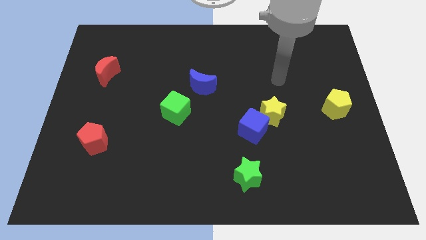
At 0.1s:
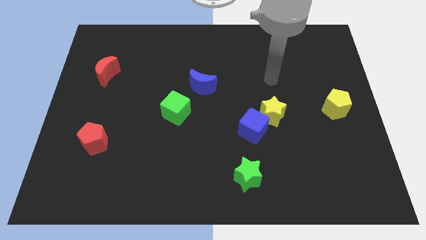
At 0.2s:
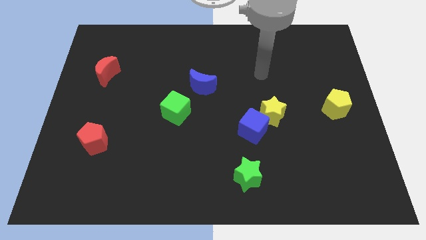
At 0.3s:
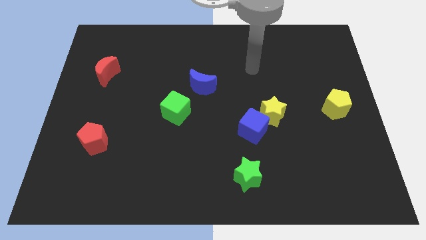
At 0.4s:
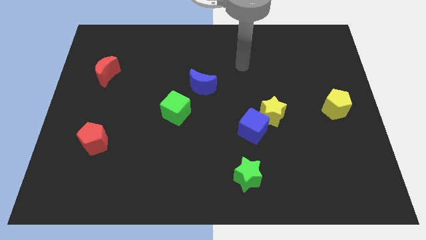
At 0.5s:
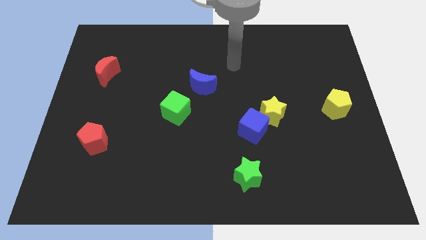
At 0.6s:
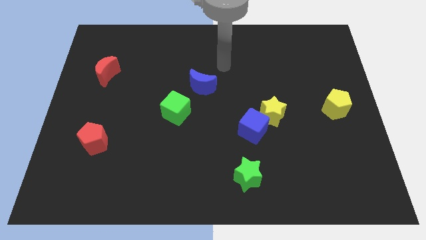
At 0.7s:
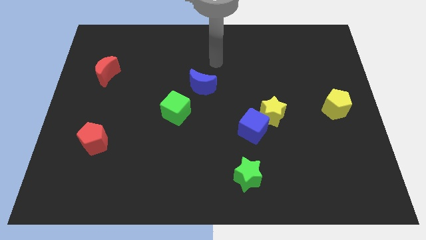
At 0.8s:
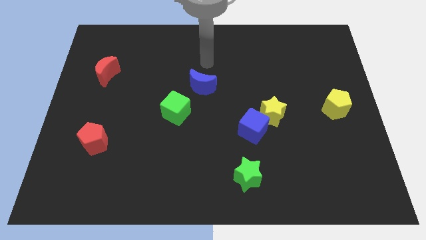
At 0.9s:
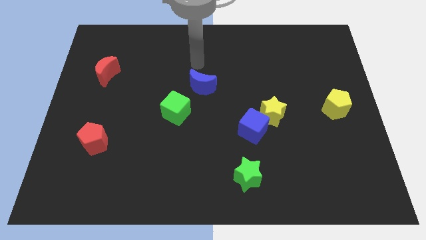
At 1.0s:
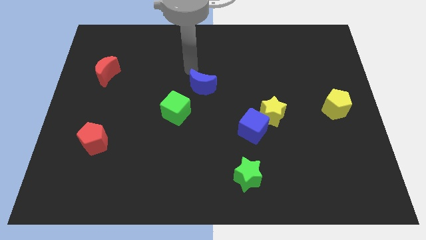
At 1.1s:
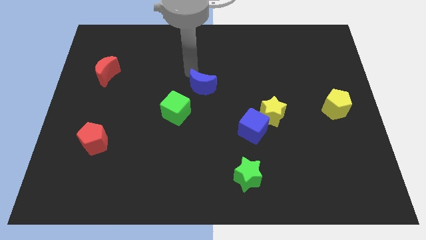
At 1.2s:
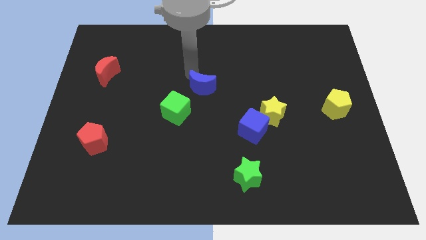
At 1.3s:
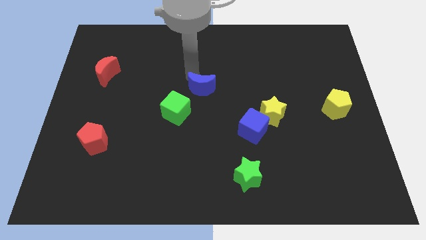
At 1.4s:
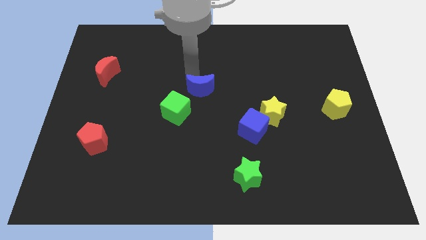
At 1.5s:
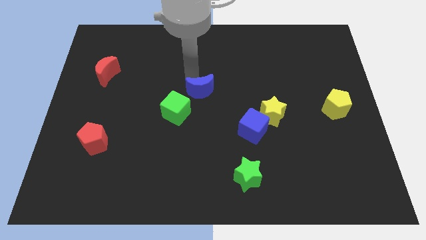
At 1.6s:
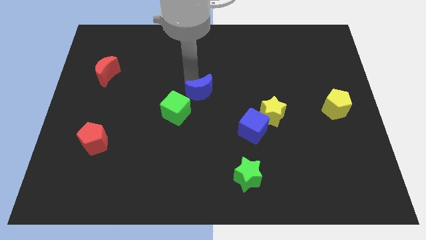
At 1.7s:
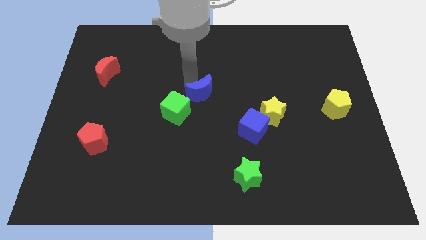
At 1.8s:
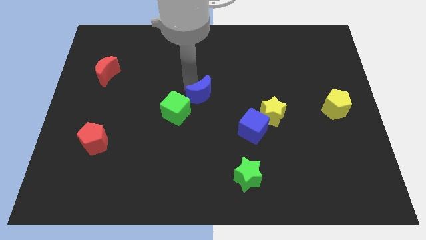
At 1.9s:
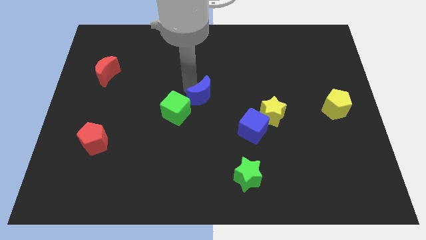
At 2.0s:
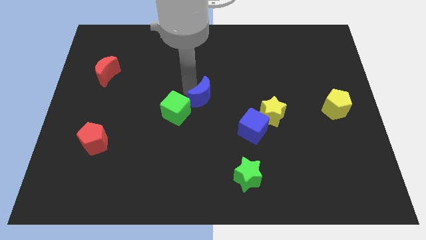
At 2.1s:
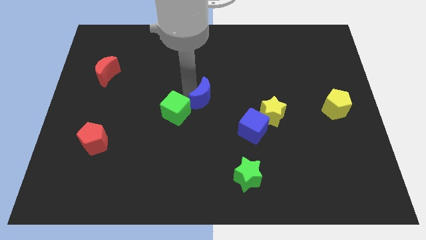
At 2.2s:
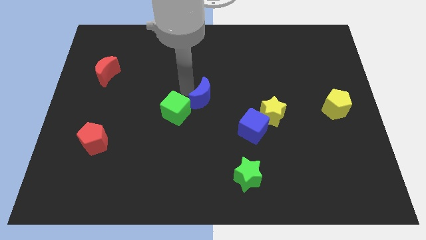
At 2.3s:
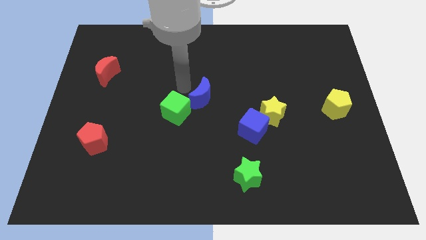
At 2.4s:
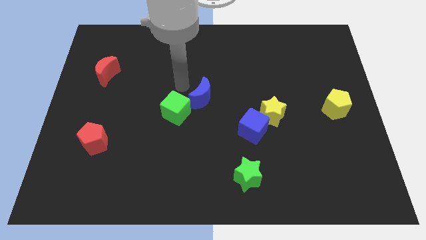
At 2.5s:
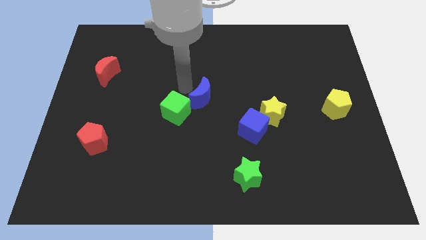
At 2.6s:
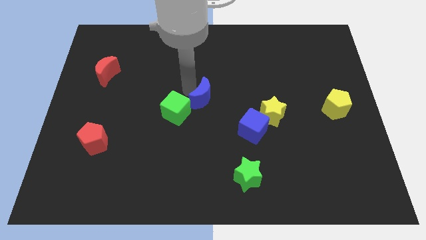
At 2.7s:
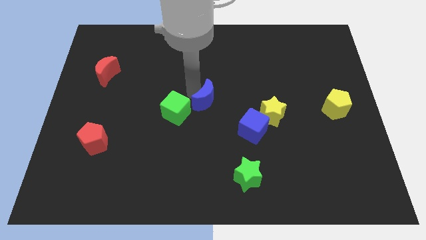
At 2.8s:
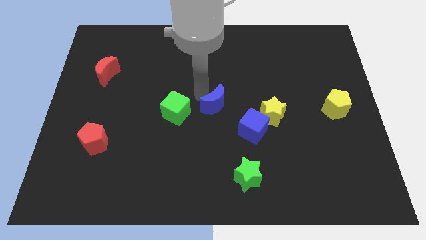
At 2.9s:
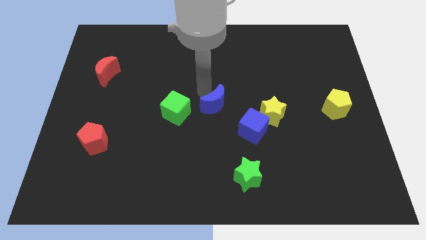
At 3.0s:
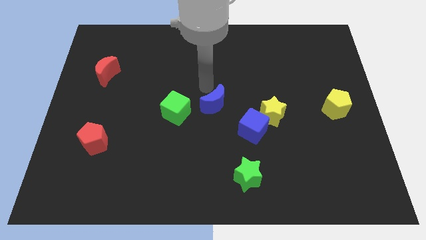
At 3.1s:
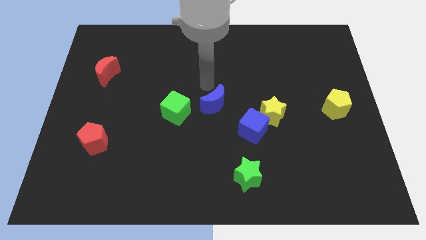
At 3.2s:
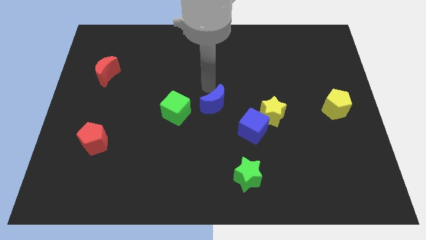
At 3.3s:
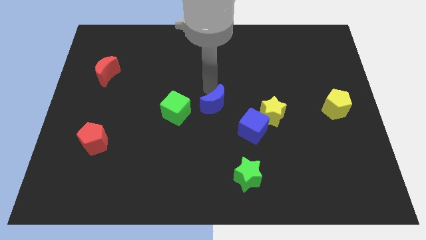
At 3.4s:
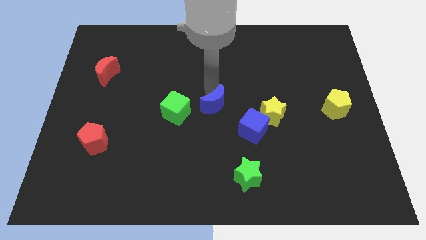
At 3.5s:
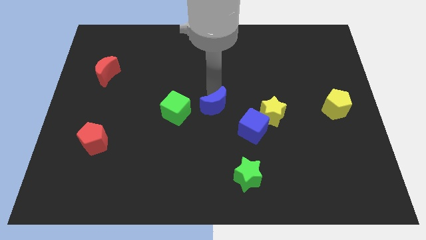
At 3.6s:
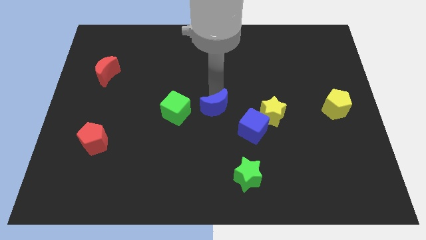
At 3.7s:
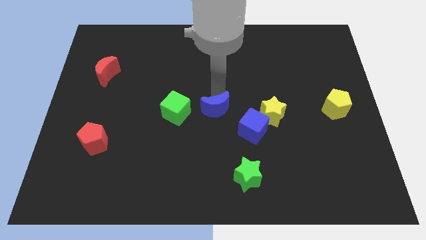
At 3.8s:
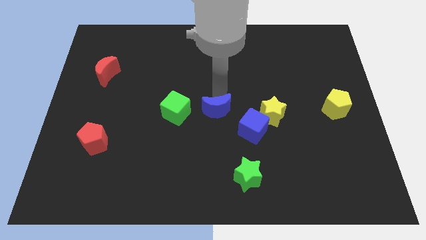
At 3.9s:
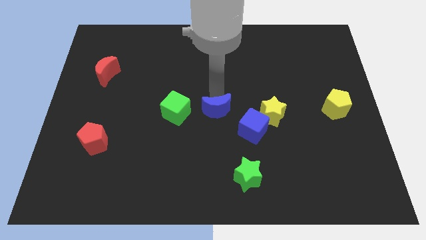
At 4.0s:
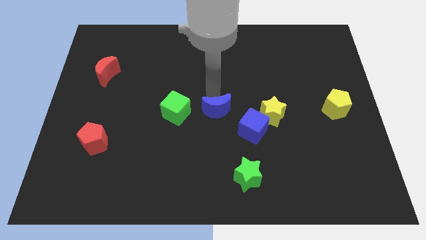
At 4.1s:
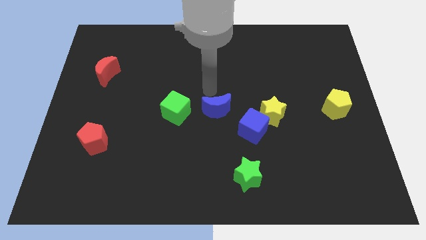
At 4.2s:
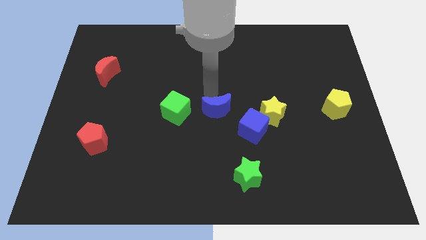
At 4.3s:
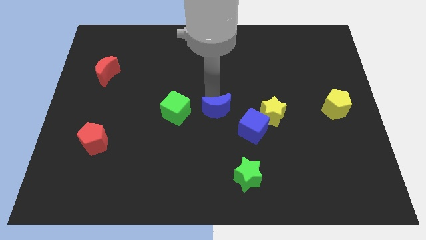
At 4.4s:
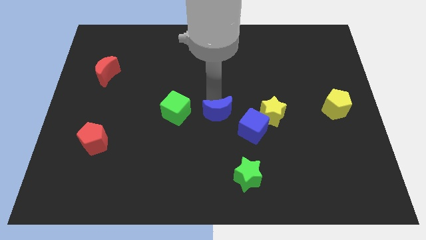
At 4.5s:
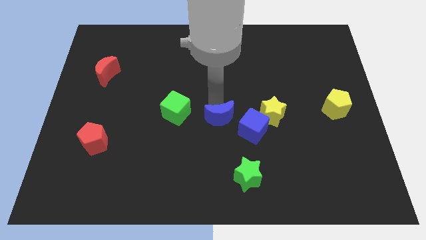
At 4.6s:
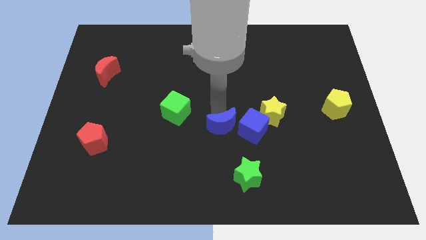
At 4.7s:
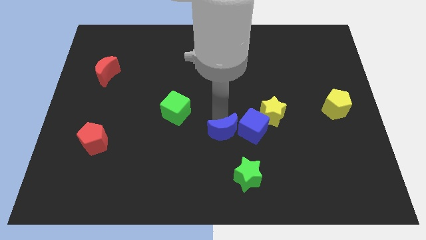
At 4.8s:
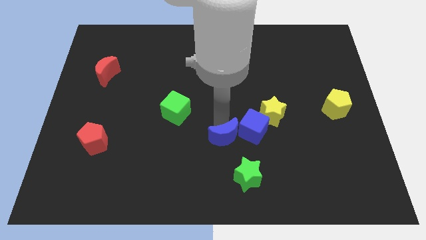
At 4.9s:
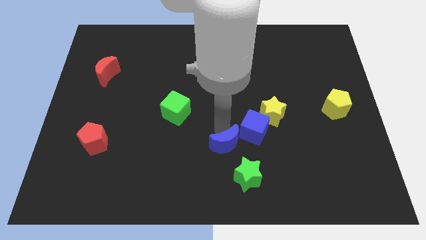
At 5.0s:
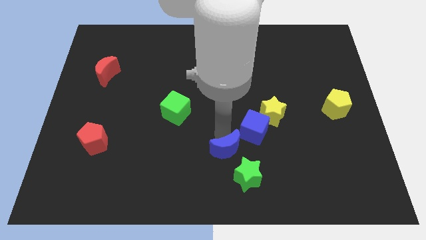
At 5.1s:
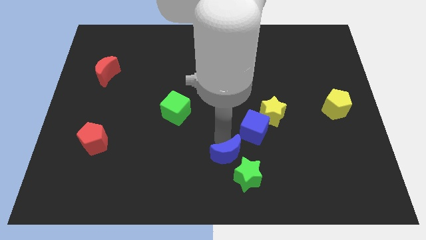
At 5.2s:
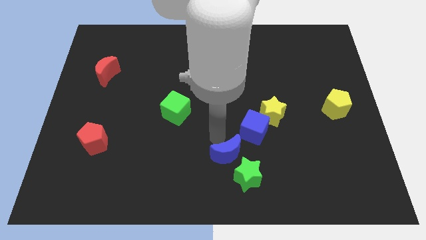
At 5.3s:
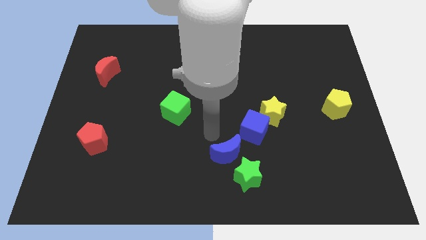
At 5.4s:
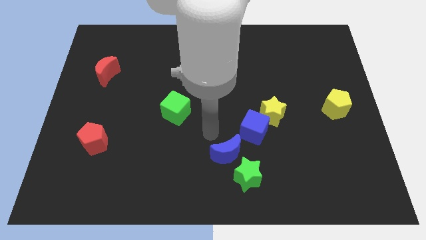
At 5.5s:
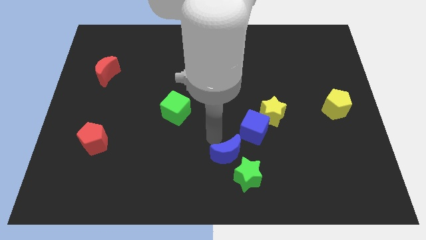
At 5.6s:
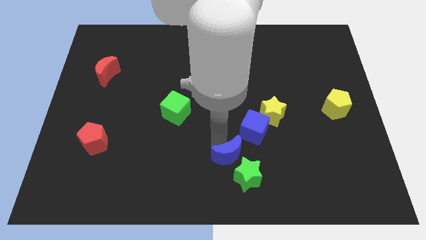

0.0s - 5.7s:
push the blue moon close to the green star
